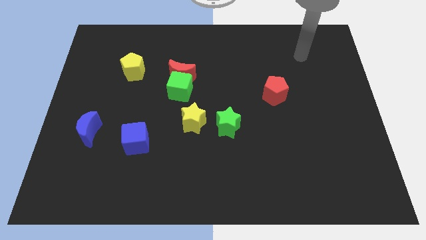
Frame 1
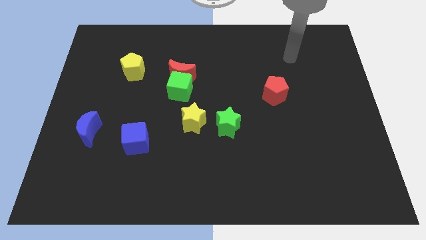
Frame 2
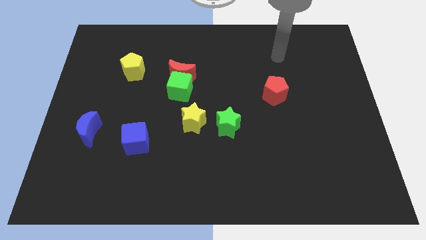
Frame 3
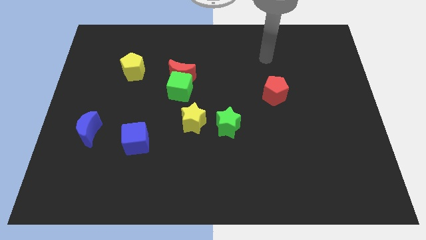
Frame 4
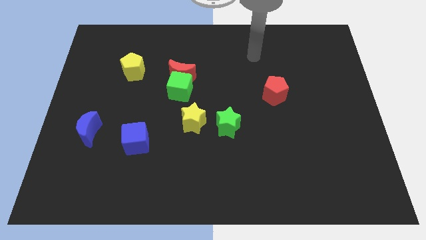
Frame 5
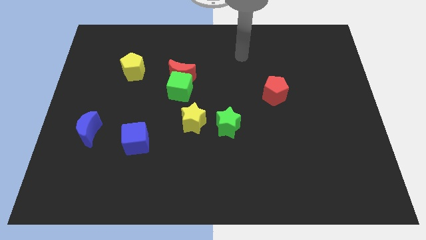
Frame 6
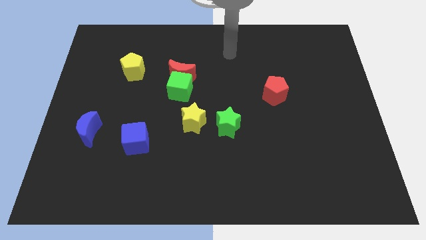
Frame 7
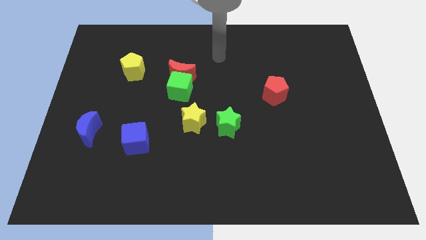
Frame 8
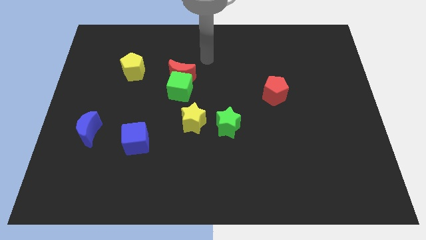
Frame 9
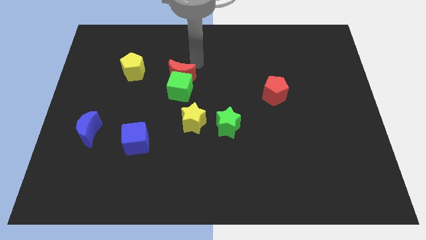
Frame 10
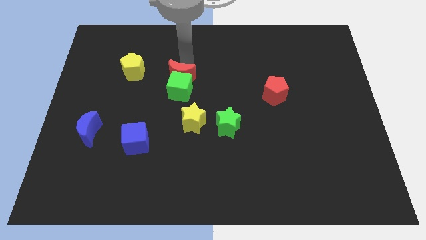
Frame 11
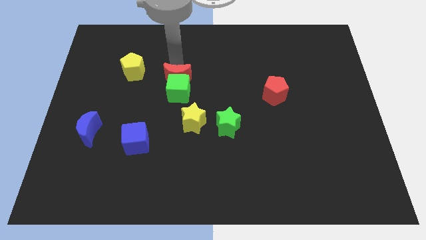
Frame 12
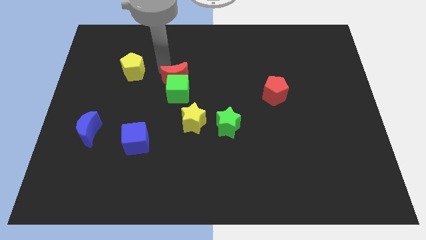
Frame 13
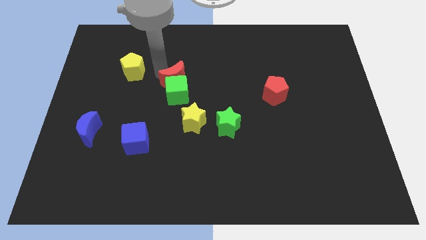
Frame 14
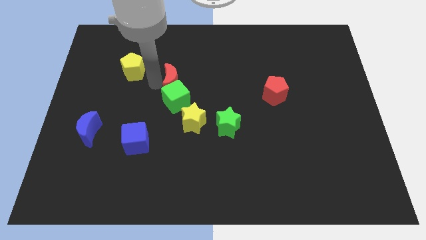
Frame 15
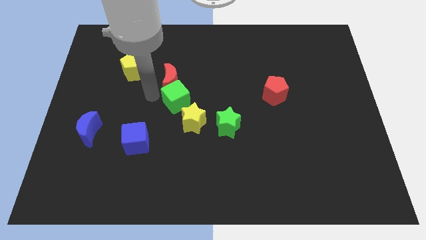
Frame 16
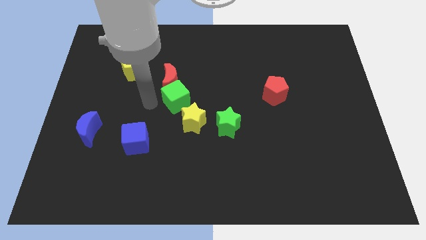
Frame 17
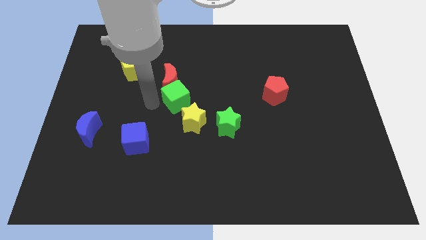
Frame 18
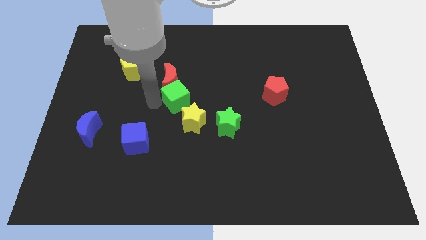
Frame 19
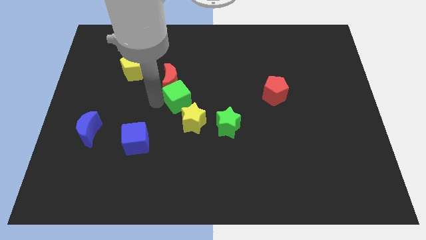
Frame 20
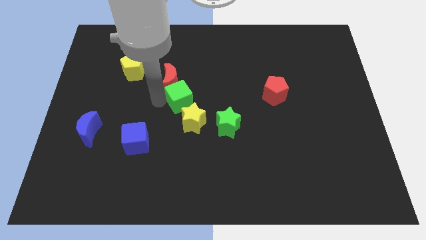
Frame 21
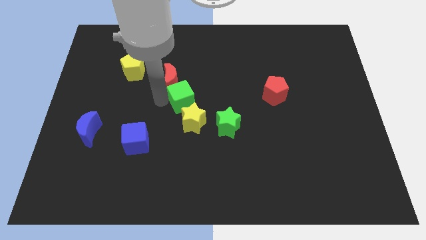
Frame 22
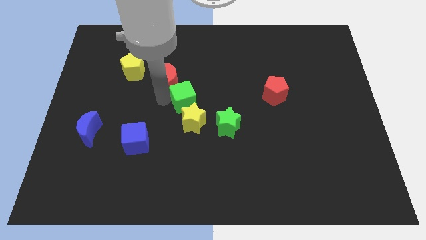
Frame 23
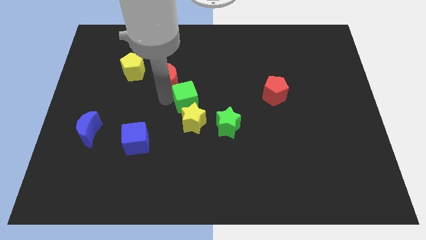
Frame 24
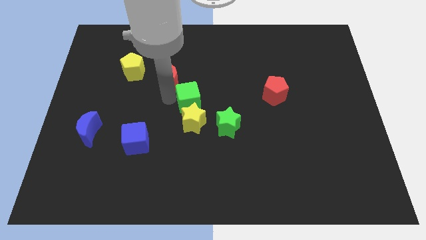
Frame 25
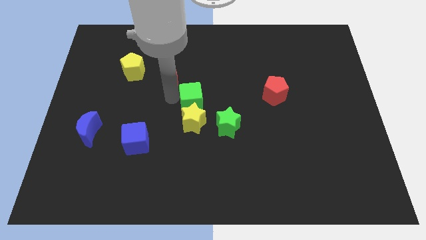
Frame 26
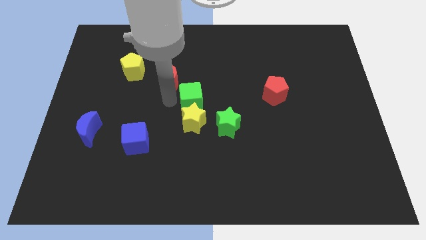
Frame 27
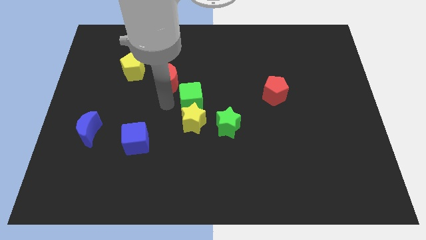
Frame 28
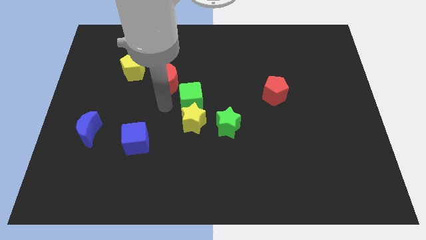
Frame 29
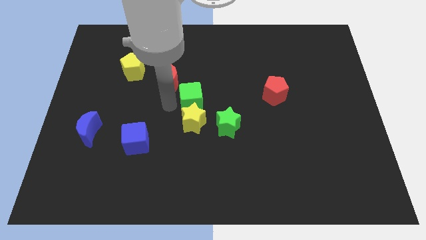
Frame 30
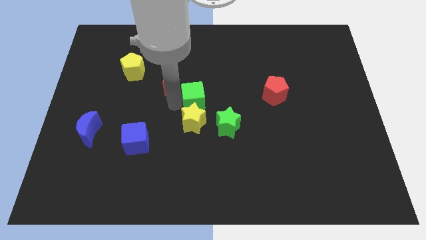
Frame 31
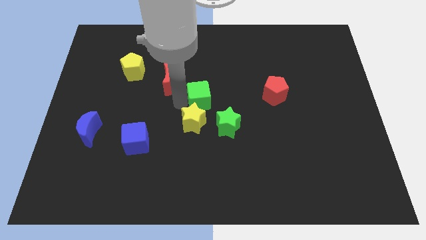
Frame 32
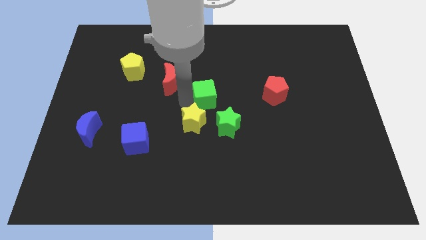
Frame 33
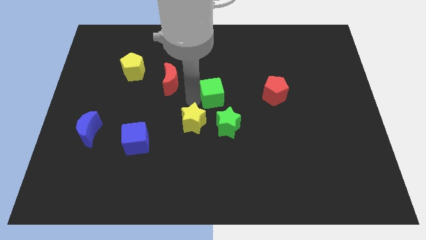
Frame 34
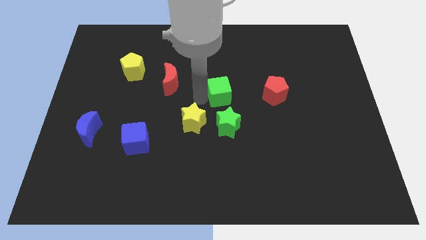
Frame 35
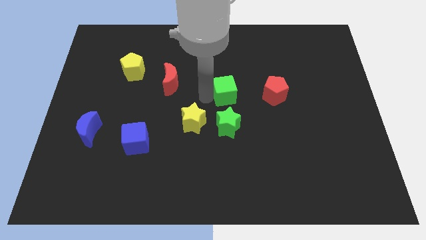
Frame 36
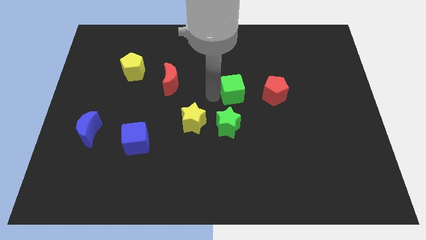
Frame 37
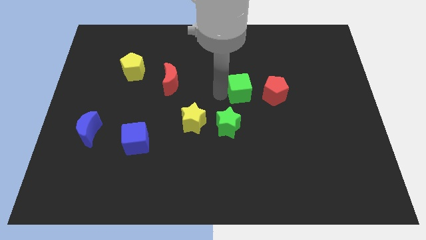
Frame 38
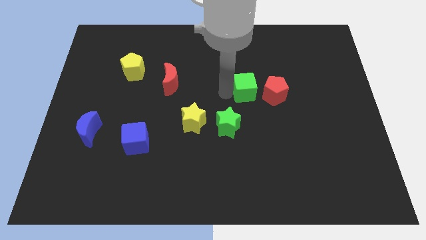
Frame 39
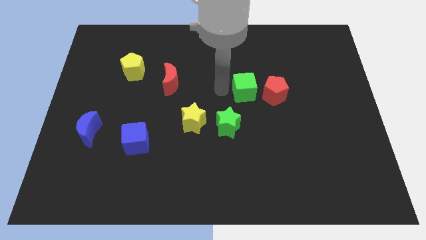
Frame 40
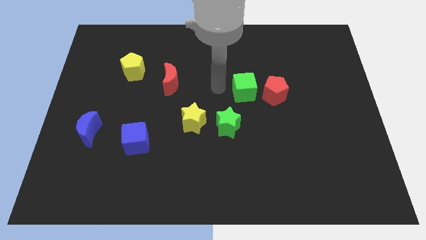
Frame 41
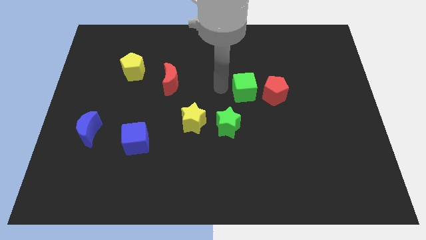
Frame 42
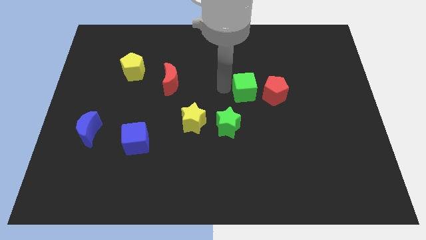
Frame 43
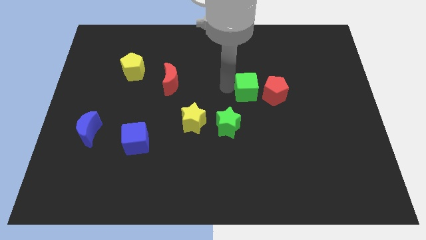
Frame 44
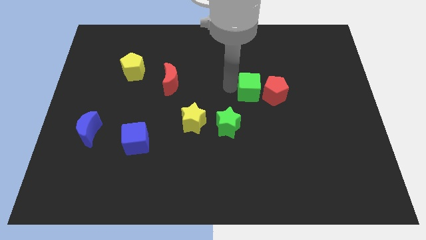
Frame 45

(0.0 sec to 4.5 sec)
slide the green cube to the red pentagon

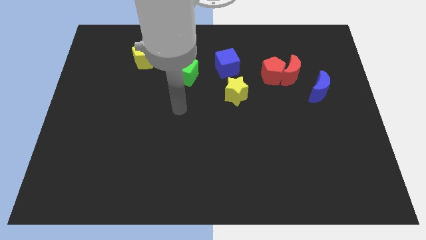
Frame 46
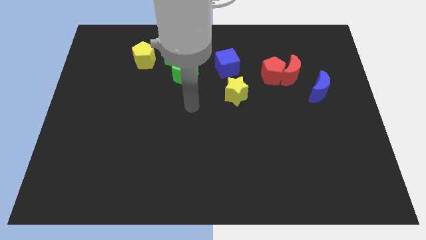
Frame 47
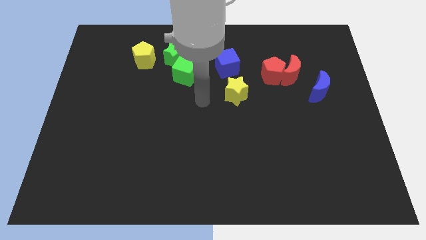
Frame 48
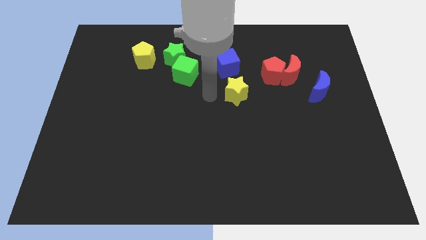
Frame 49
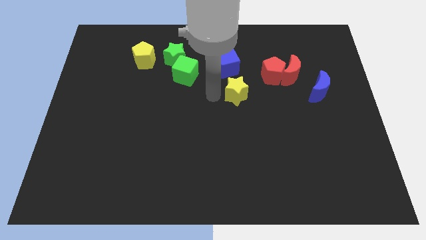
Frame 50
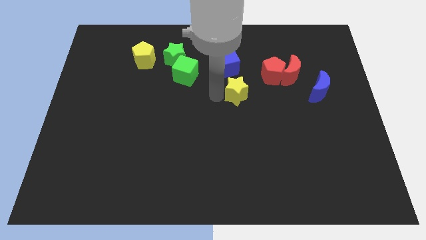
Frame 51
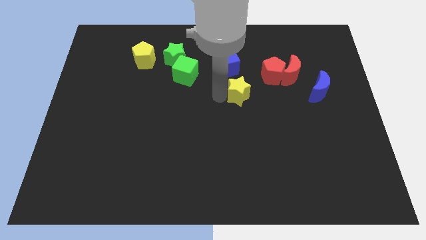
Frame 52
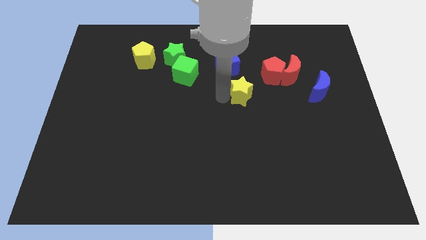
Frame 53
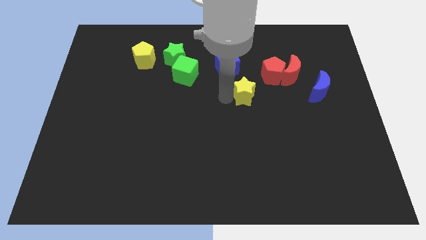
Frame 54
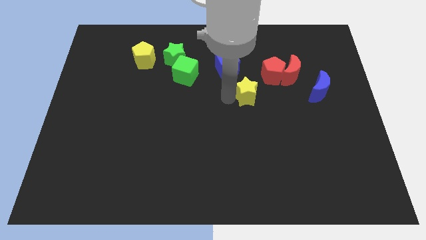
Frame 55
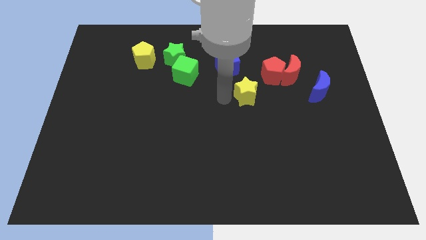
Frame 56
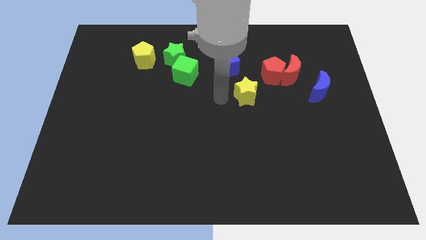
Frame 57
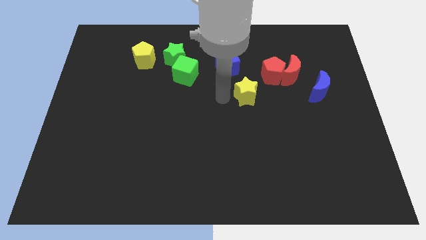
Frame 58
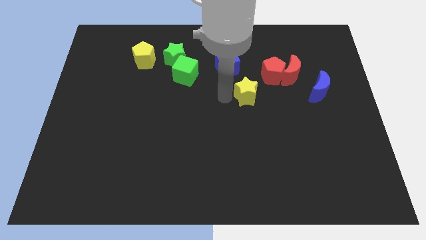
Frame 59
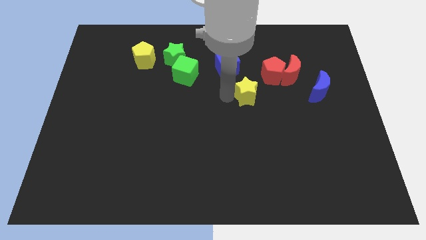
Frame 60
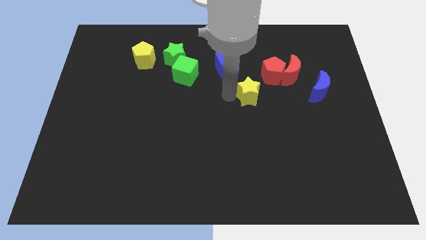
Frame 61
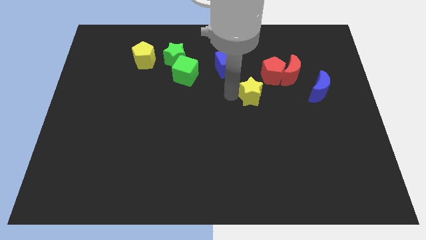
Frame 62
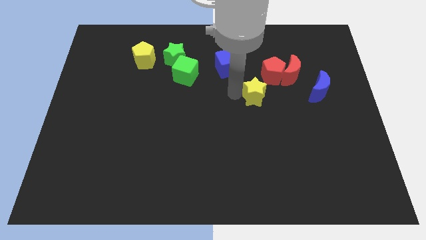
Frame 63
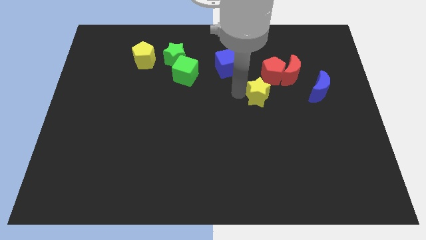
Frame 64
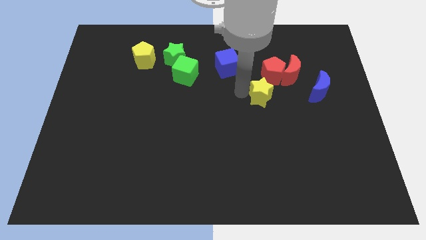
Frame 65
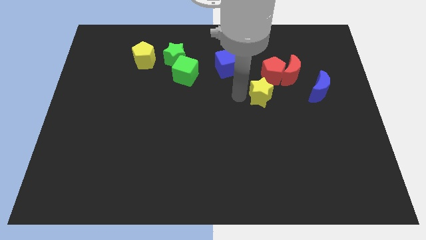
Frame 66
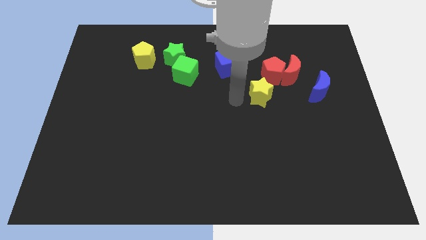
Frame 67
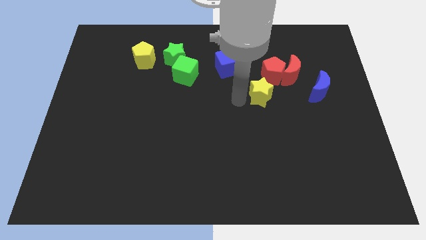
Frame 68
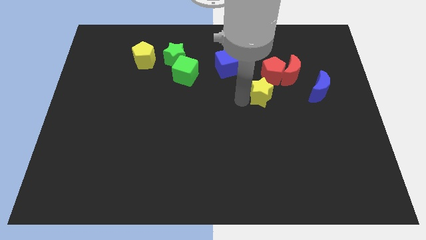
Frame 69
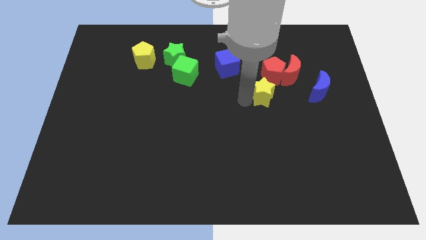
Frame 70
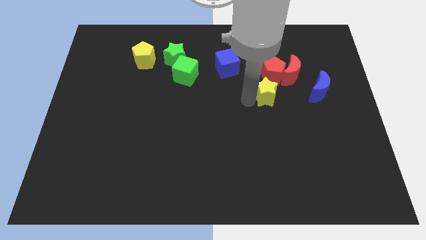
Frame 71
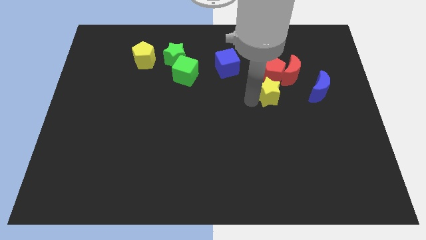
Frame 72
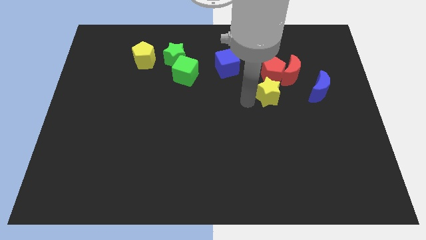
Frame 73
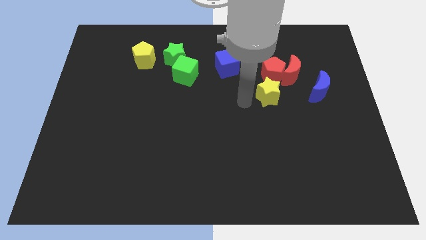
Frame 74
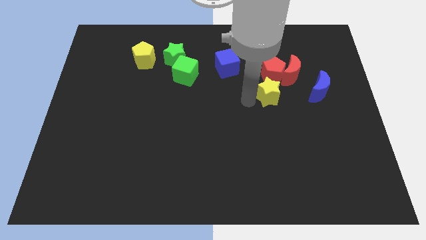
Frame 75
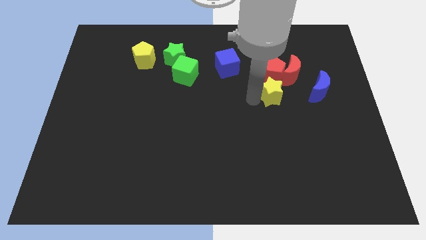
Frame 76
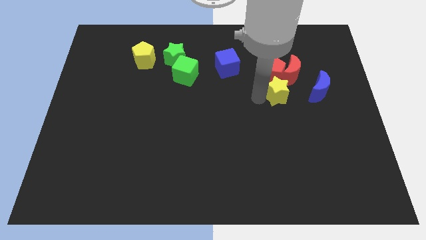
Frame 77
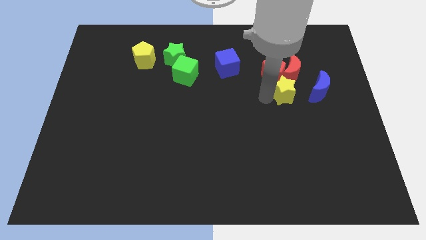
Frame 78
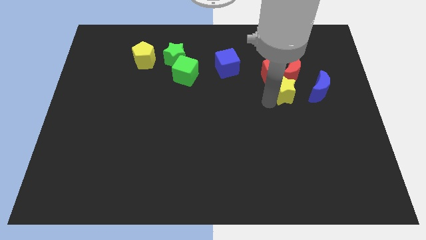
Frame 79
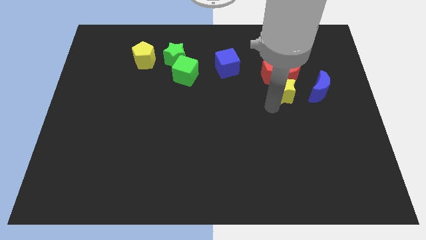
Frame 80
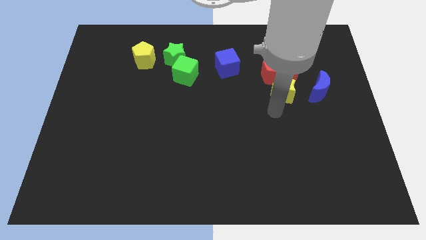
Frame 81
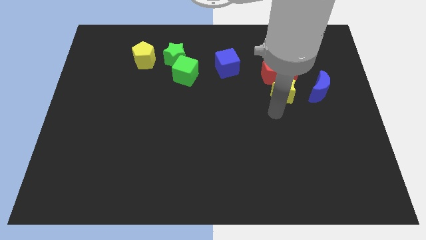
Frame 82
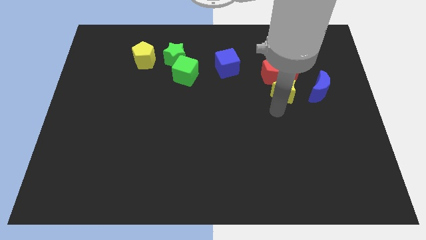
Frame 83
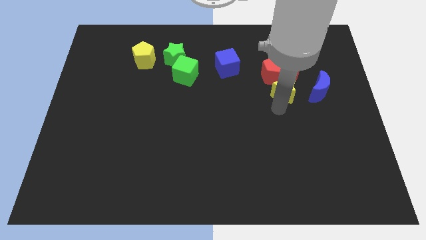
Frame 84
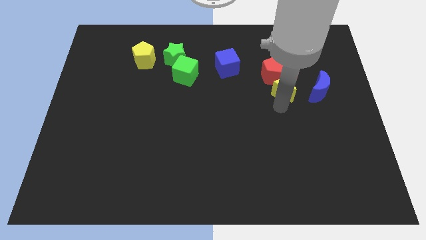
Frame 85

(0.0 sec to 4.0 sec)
slide the yellow star next to the red moon
